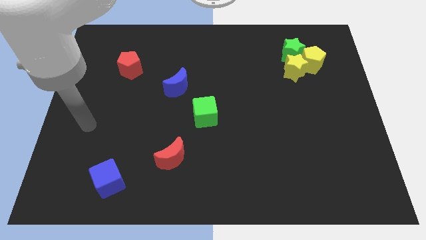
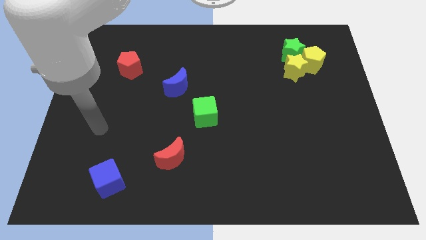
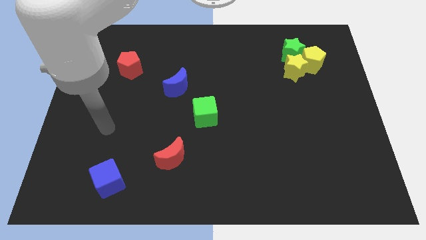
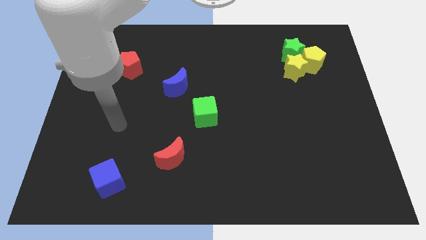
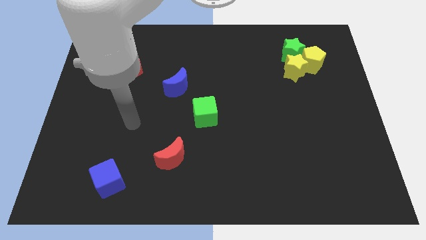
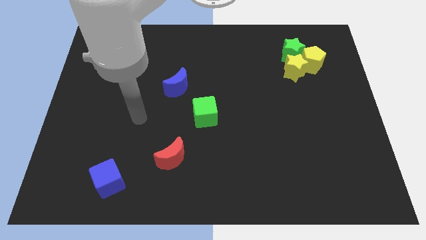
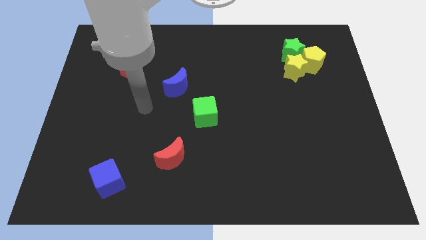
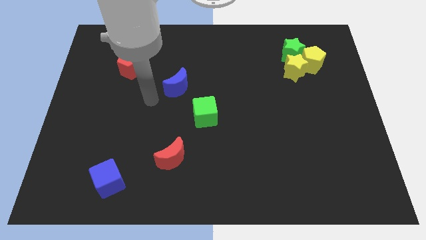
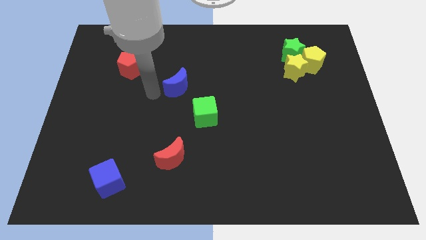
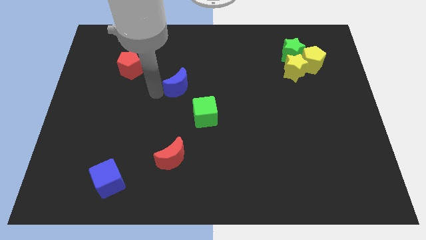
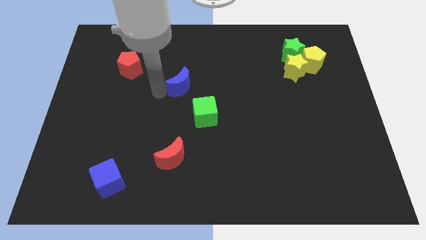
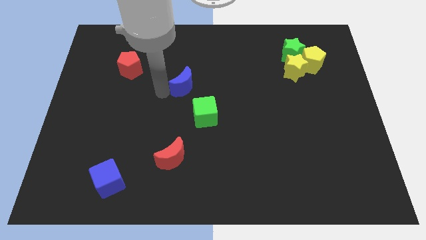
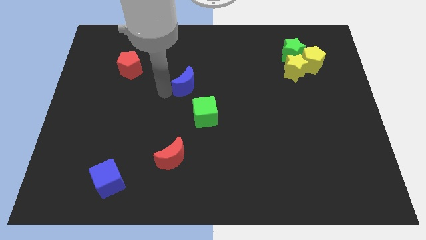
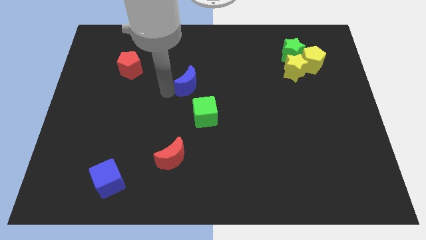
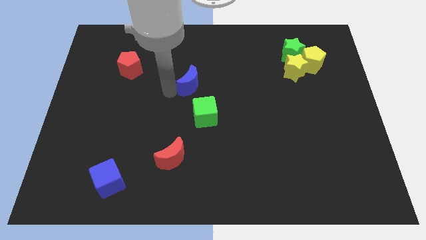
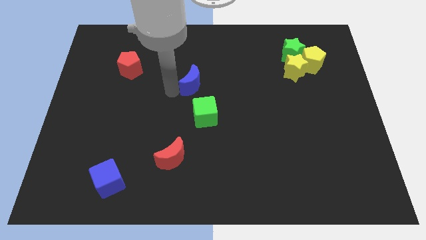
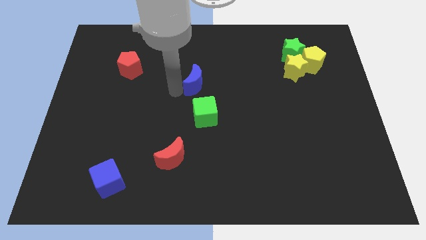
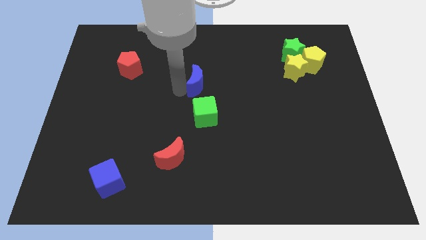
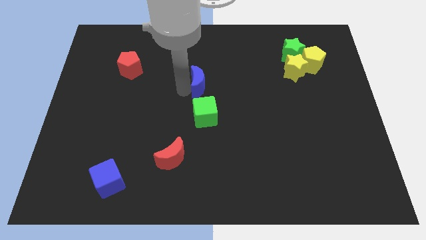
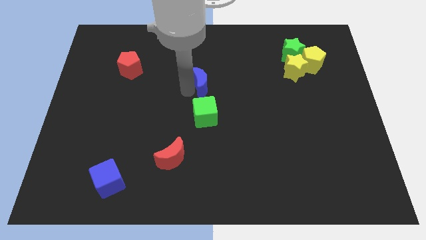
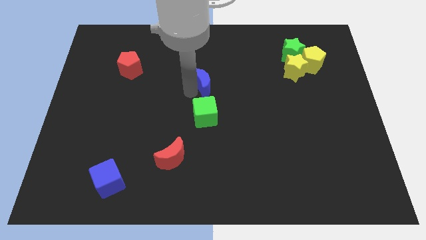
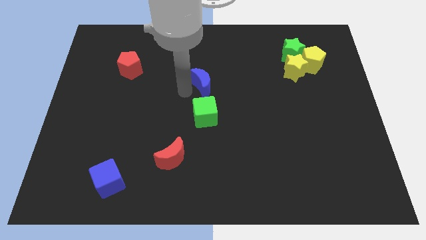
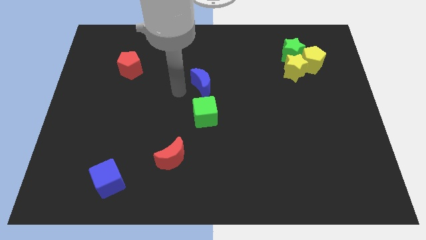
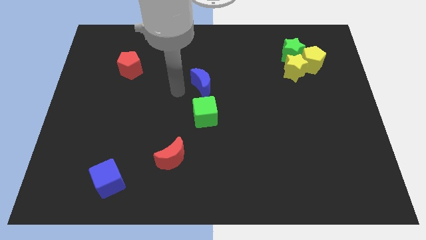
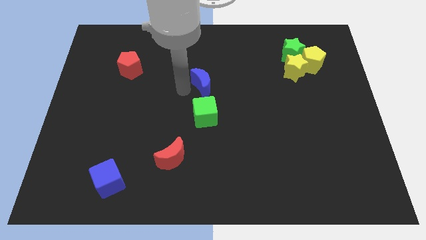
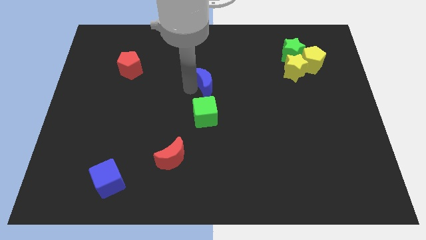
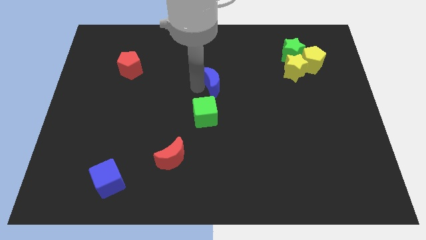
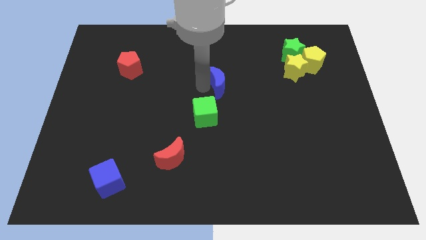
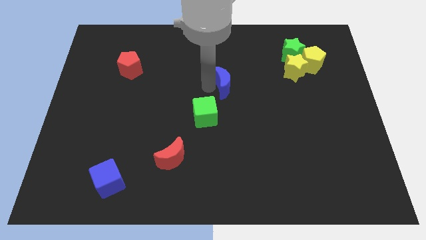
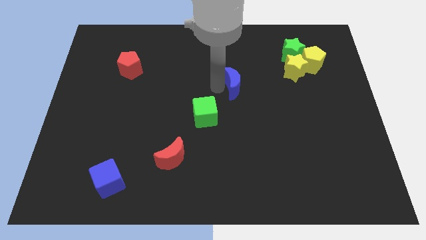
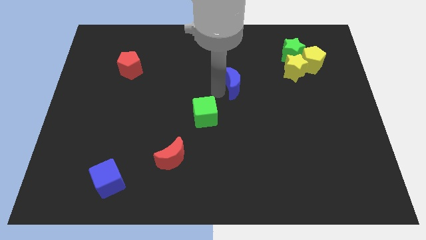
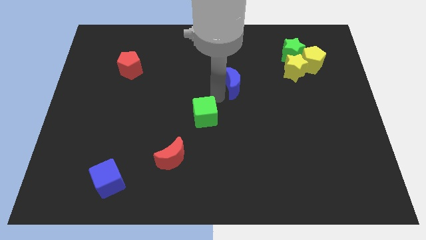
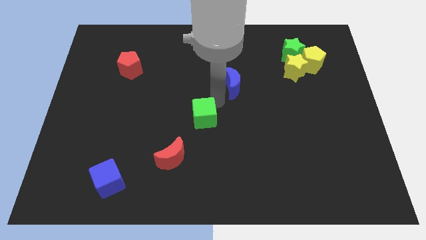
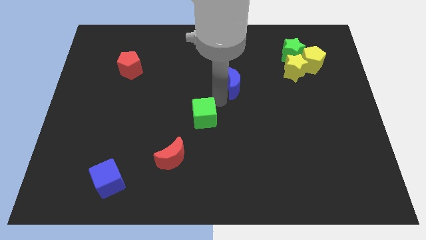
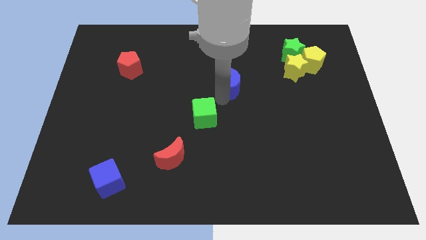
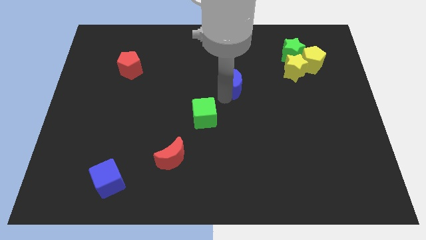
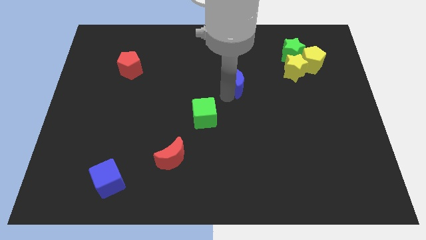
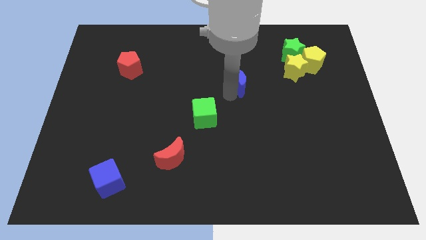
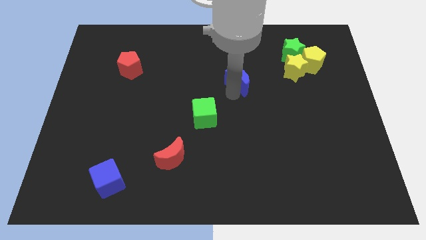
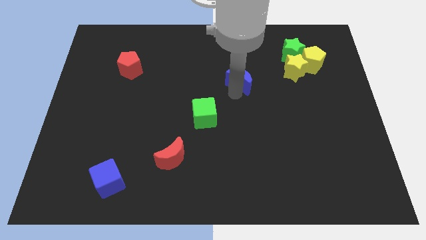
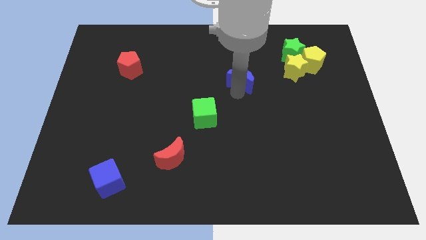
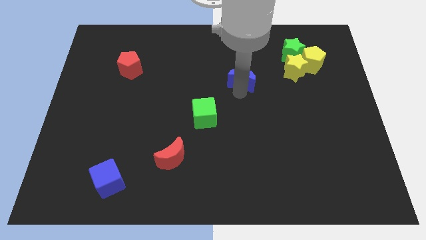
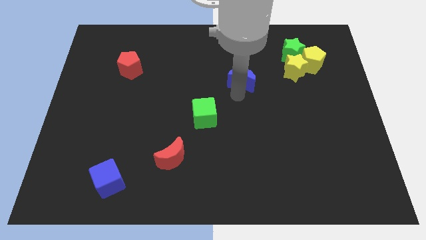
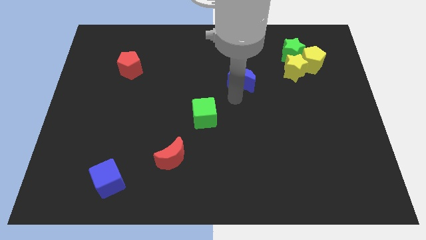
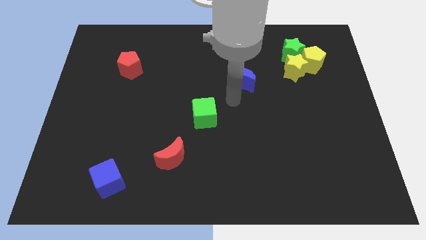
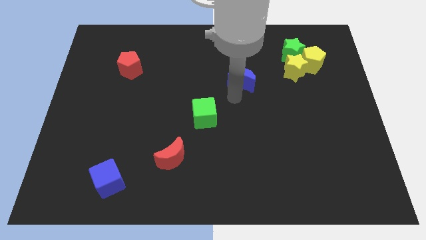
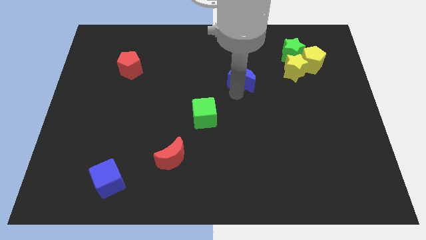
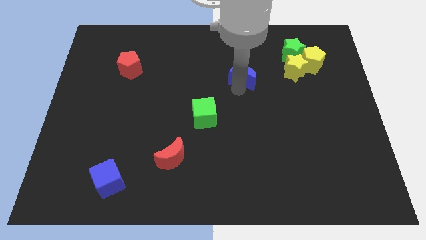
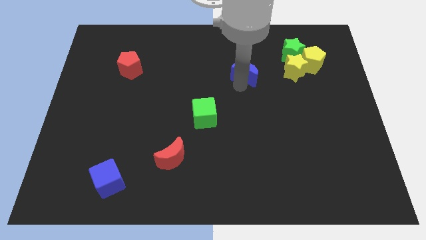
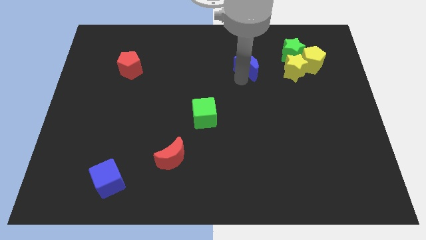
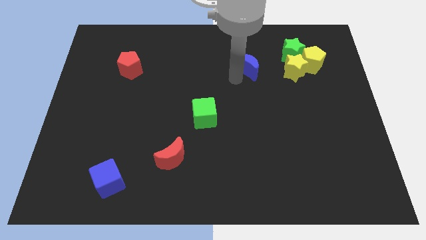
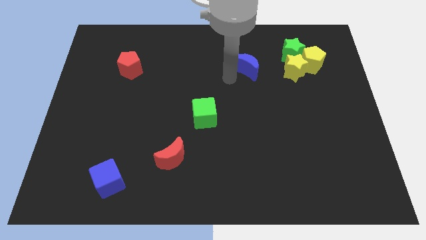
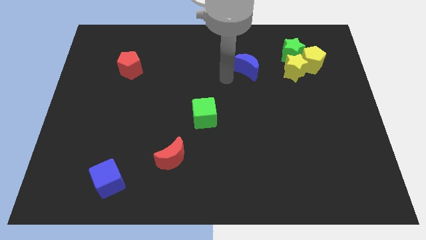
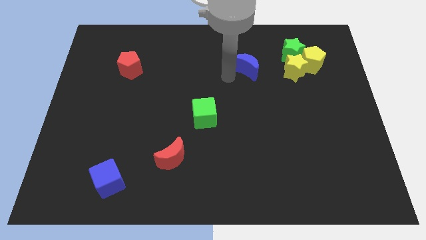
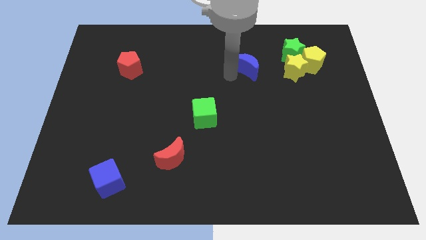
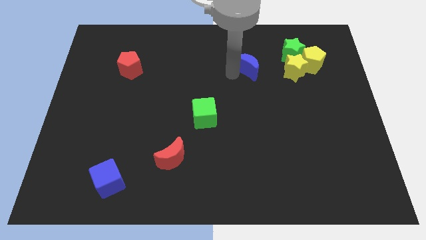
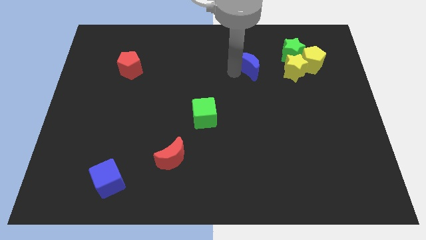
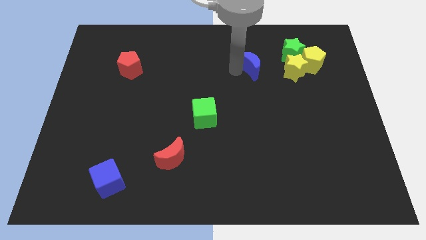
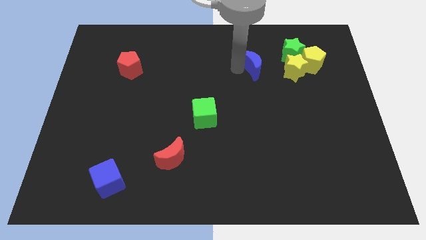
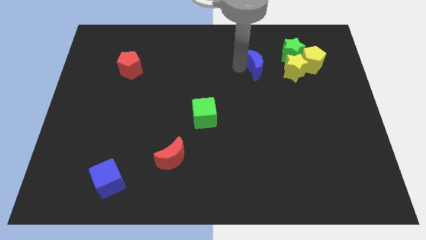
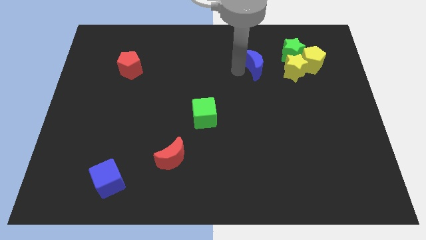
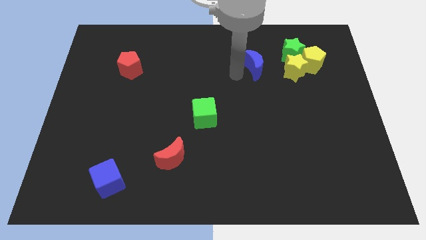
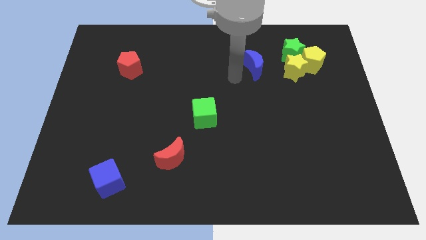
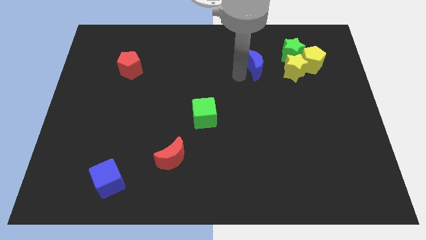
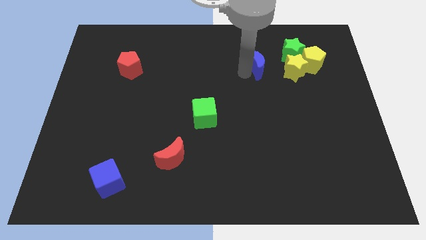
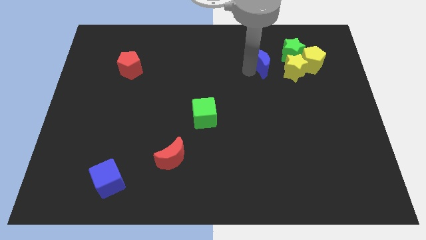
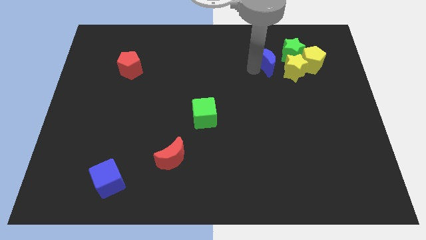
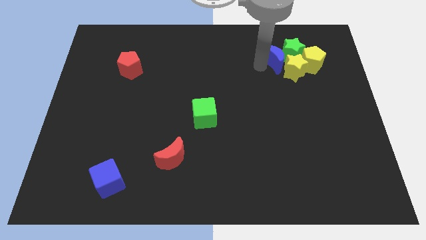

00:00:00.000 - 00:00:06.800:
slide the blue moon to the green star
